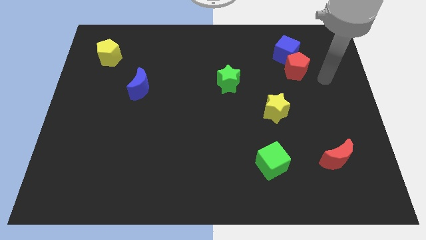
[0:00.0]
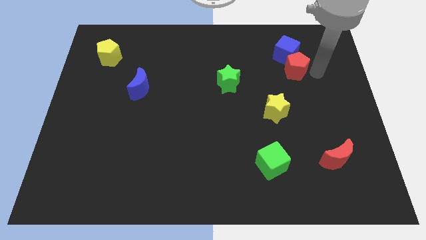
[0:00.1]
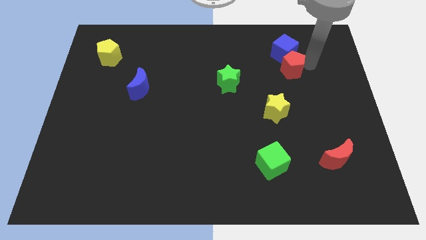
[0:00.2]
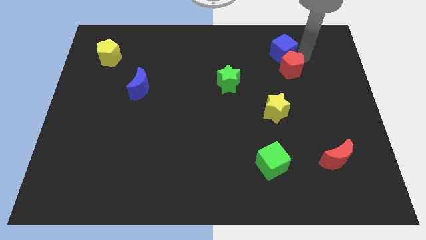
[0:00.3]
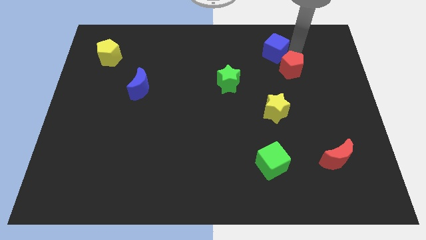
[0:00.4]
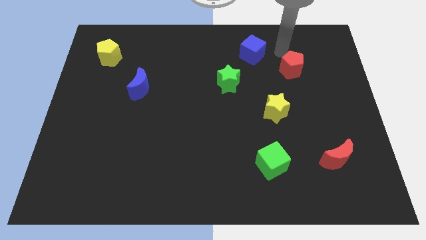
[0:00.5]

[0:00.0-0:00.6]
separate the red pentagon from the blue cube

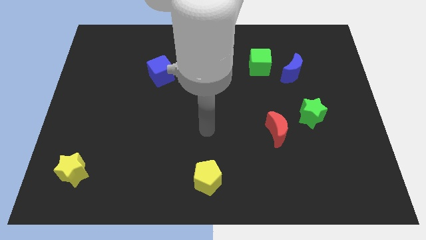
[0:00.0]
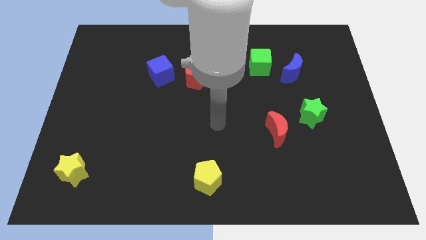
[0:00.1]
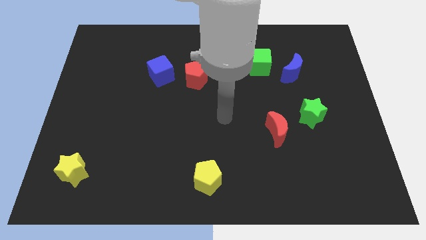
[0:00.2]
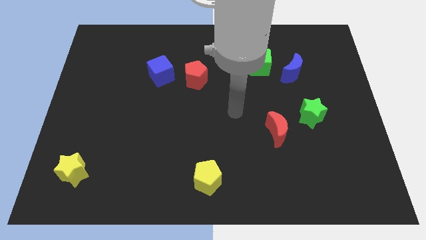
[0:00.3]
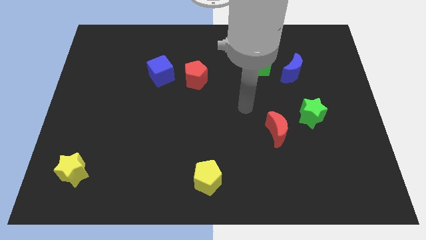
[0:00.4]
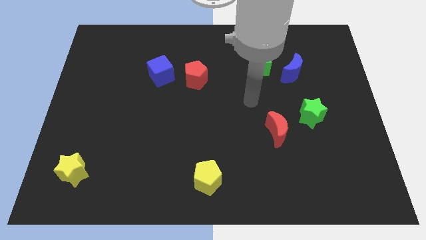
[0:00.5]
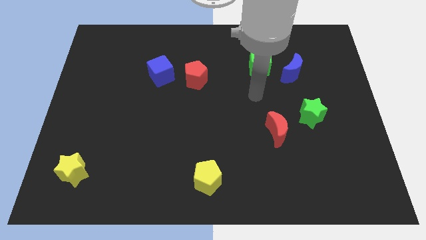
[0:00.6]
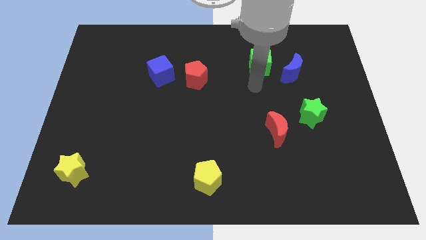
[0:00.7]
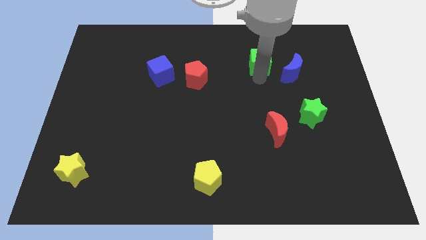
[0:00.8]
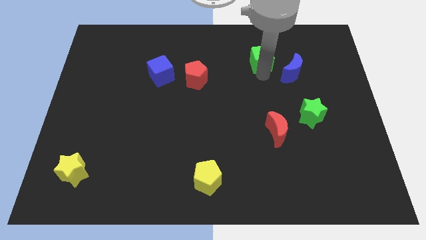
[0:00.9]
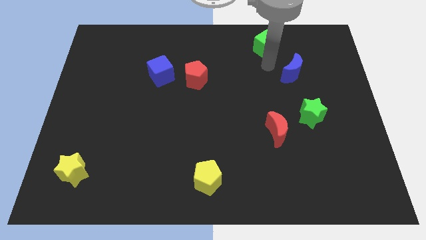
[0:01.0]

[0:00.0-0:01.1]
move the blue moon away from the green cube

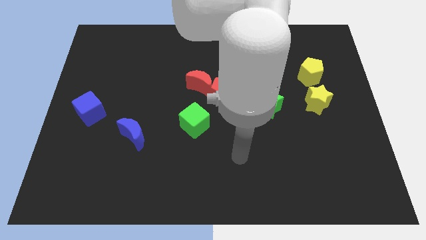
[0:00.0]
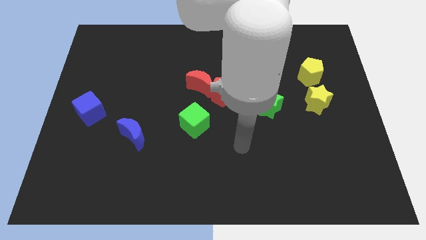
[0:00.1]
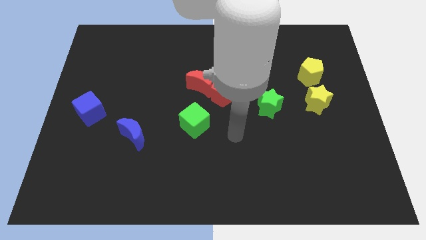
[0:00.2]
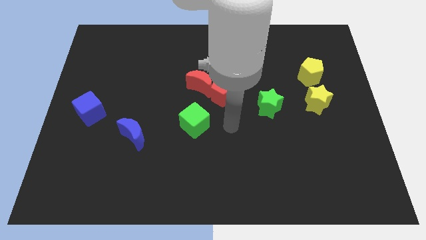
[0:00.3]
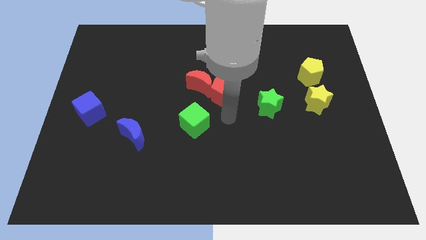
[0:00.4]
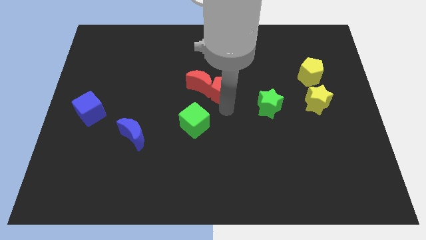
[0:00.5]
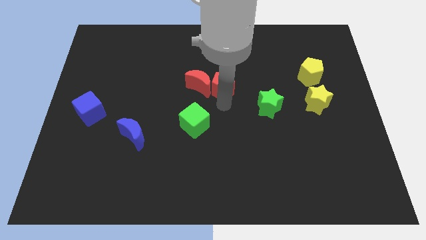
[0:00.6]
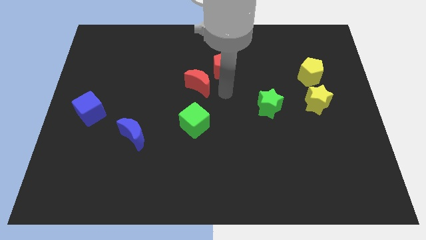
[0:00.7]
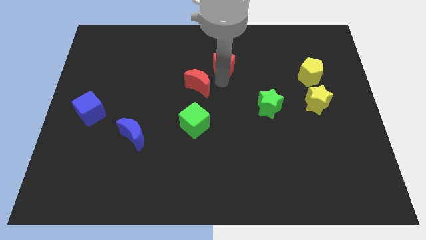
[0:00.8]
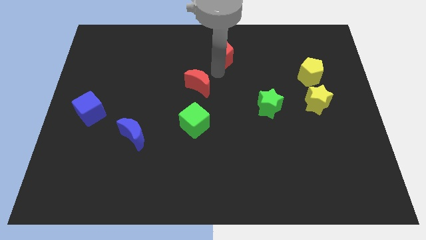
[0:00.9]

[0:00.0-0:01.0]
separate the red moon from the red pentagon

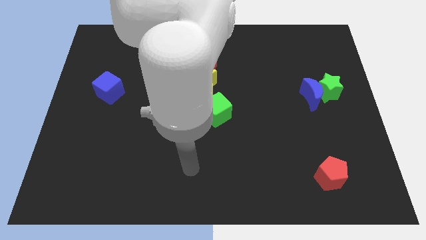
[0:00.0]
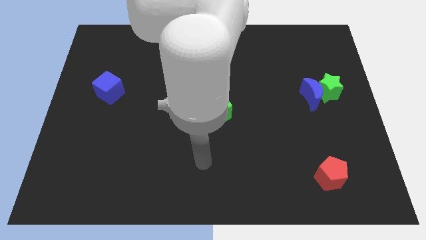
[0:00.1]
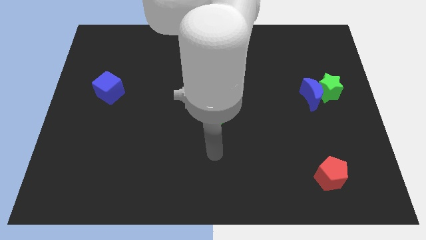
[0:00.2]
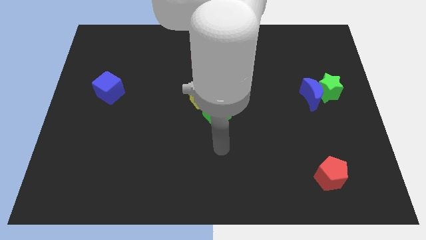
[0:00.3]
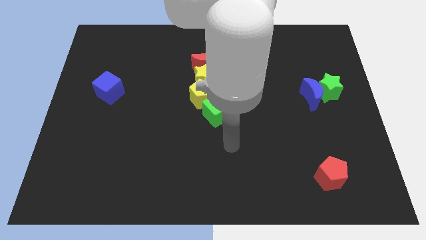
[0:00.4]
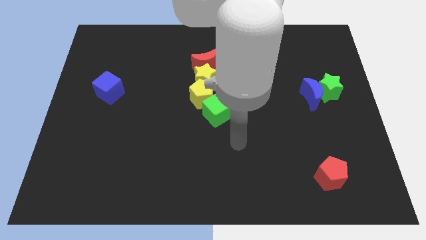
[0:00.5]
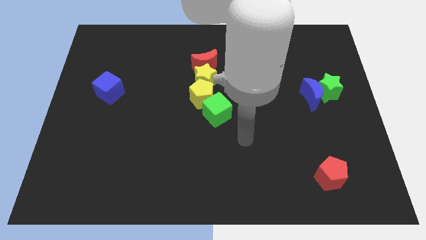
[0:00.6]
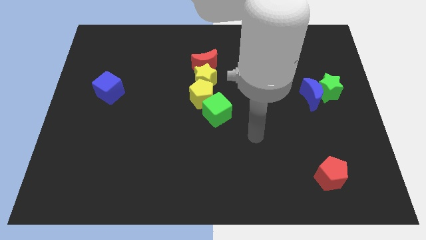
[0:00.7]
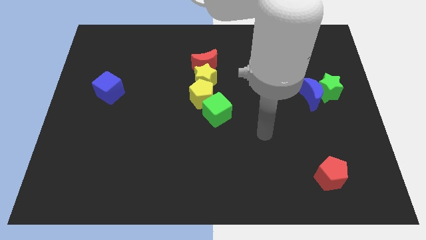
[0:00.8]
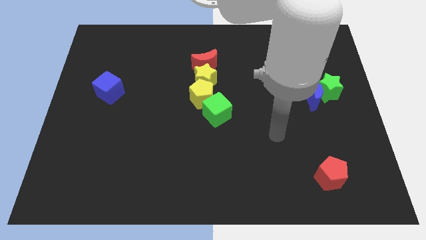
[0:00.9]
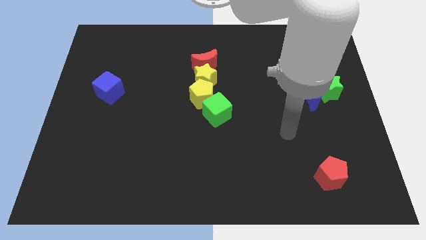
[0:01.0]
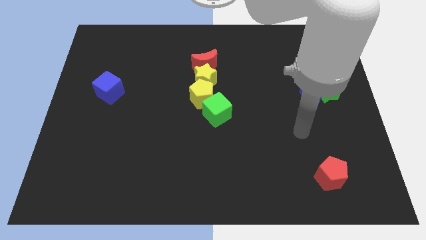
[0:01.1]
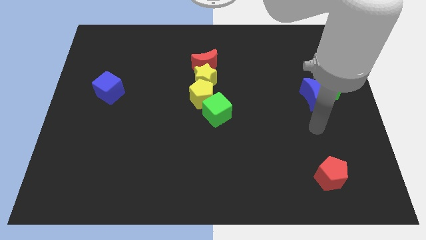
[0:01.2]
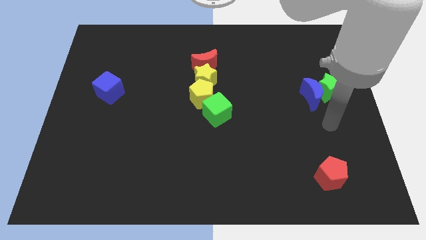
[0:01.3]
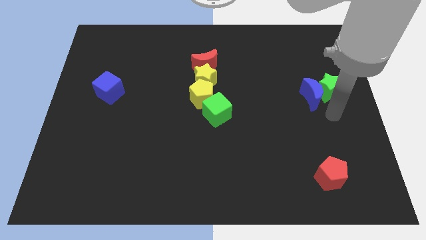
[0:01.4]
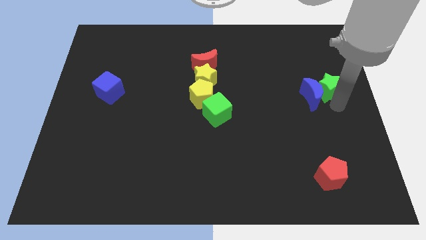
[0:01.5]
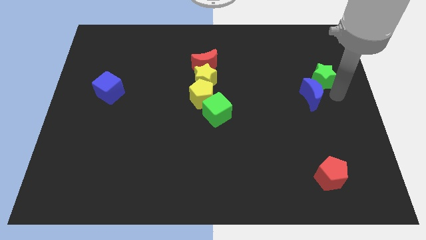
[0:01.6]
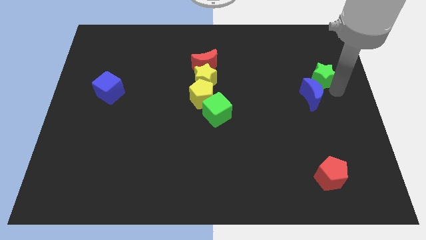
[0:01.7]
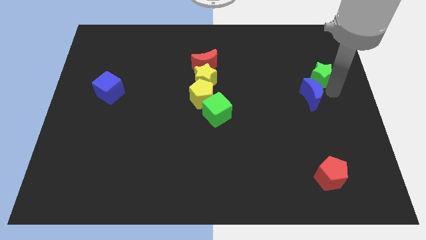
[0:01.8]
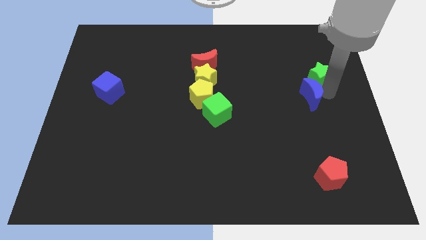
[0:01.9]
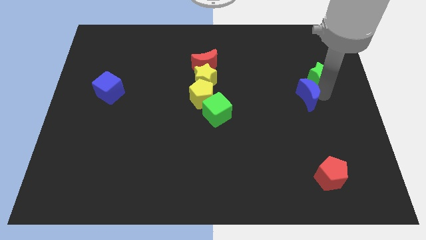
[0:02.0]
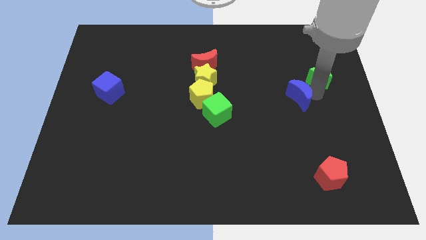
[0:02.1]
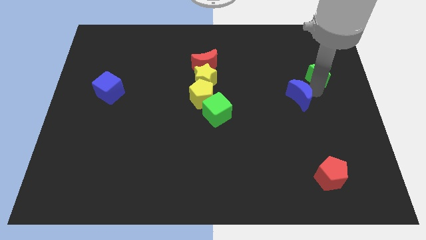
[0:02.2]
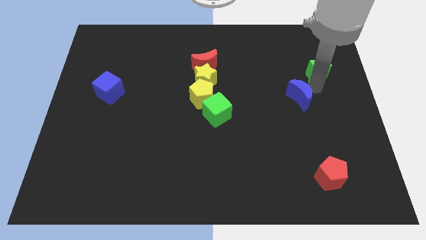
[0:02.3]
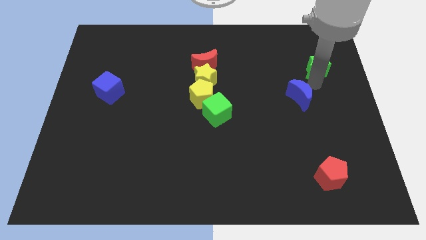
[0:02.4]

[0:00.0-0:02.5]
separate the blue moon from the green star

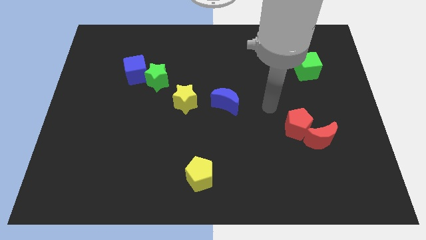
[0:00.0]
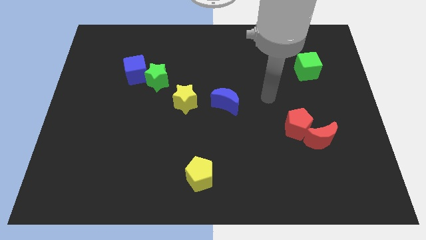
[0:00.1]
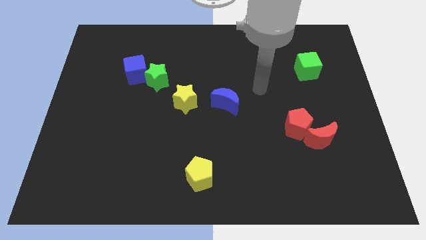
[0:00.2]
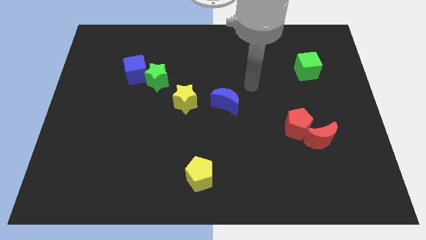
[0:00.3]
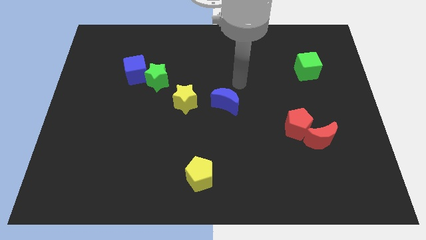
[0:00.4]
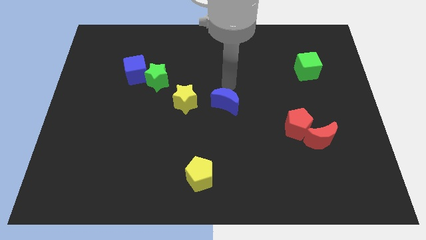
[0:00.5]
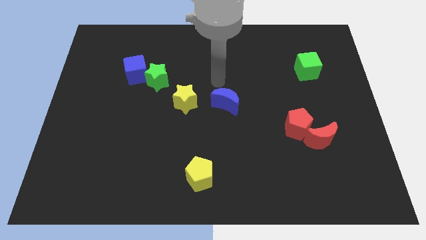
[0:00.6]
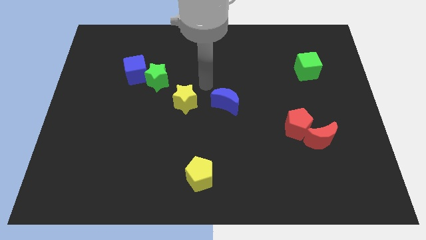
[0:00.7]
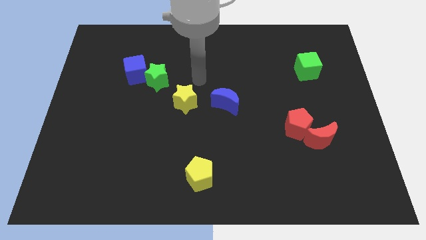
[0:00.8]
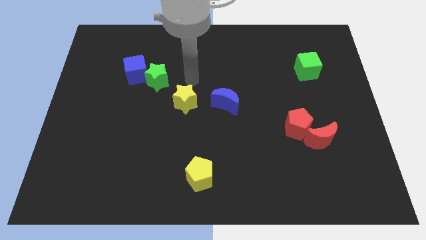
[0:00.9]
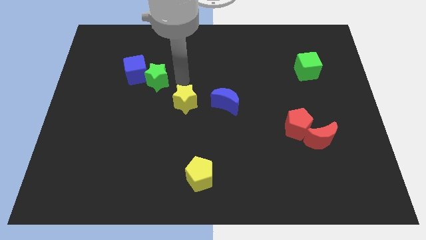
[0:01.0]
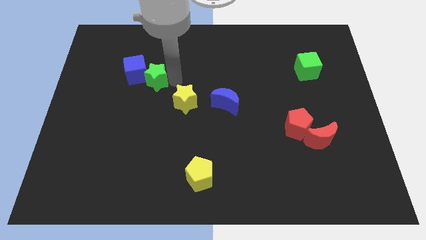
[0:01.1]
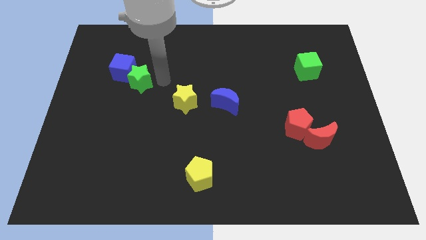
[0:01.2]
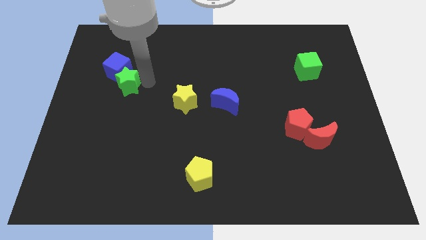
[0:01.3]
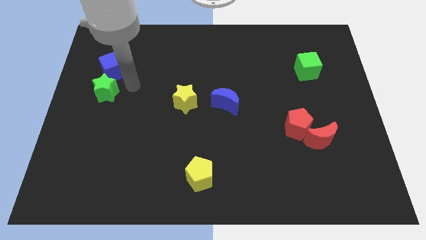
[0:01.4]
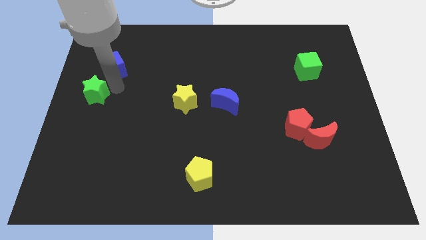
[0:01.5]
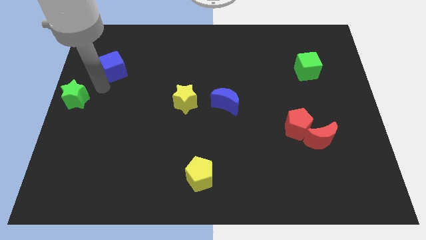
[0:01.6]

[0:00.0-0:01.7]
pull the blue cube apart from the green star

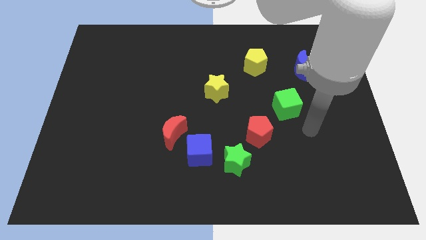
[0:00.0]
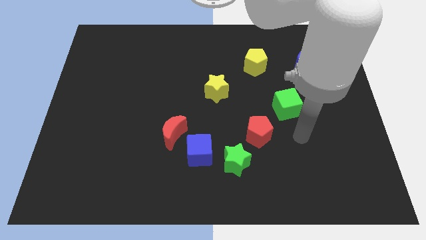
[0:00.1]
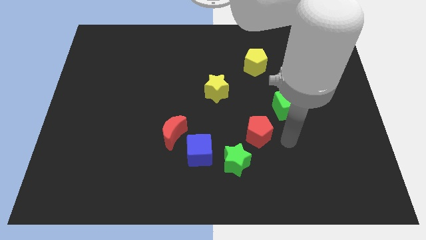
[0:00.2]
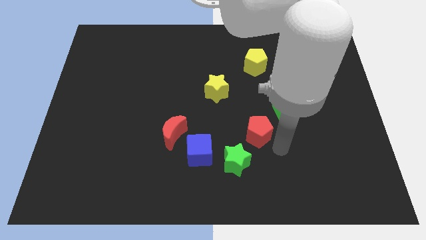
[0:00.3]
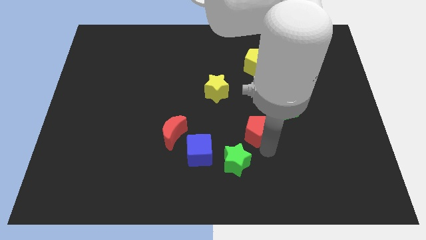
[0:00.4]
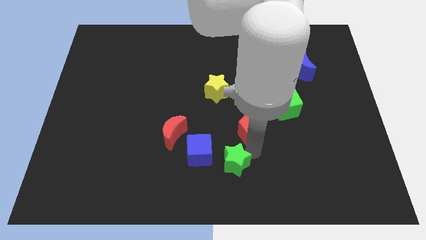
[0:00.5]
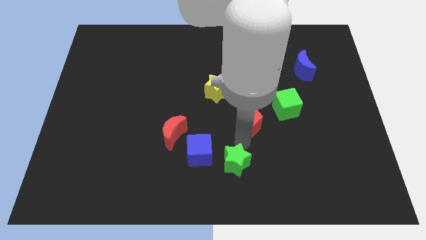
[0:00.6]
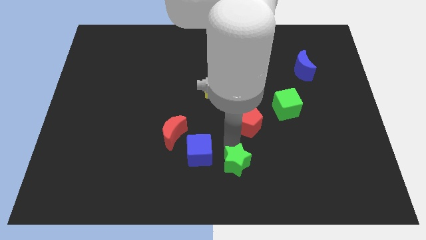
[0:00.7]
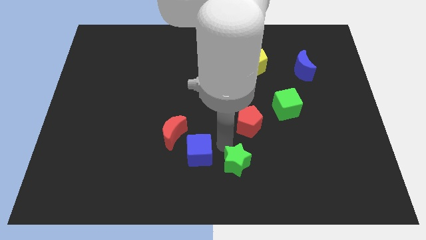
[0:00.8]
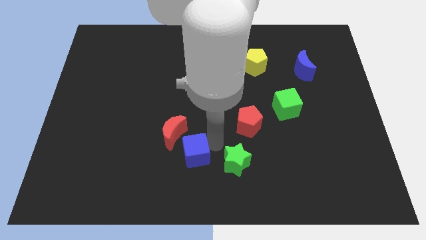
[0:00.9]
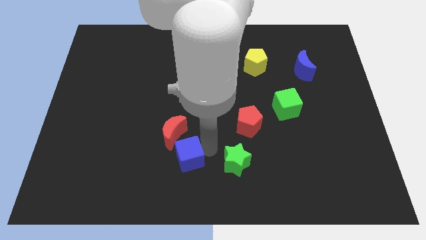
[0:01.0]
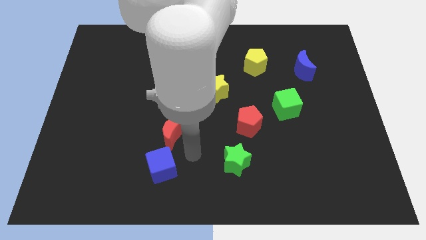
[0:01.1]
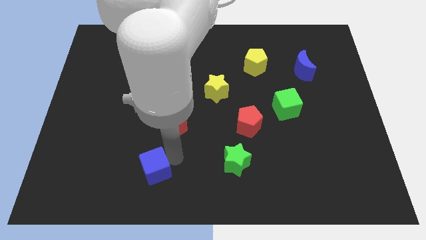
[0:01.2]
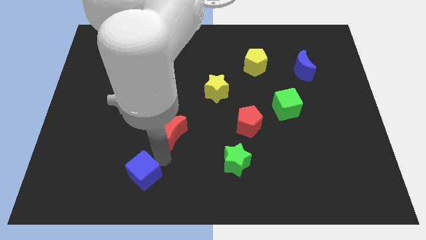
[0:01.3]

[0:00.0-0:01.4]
pull the red moon apart from the blue cube

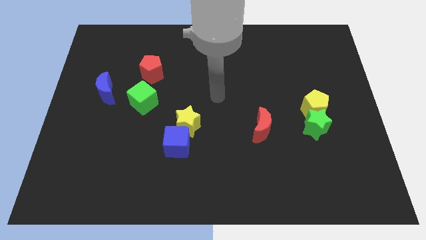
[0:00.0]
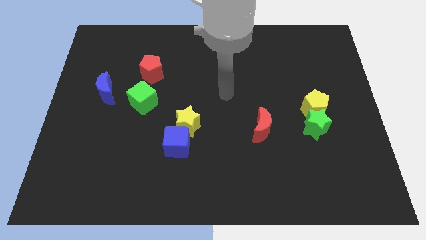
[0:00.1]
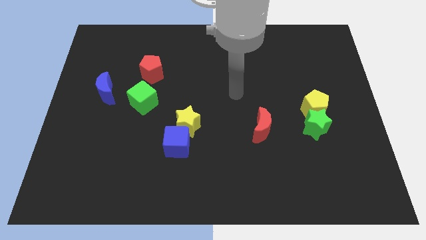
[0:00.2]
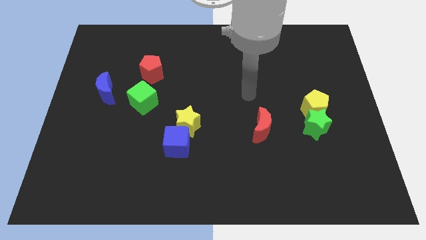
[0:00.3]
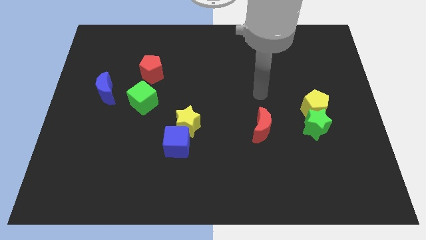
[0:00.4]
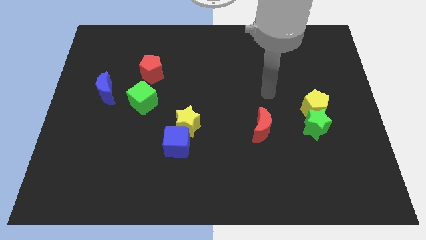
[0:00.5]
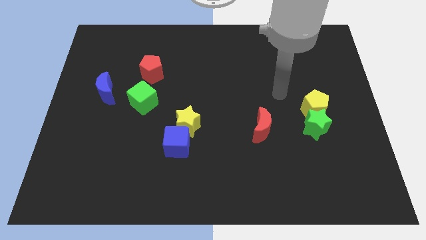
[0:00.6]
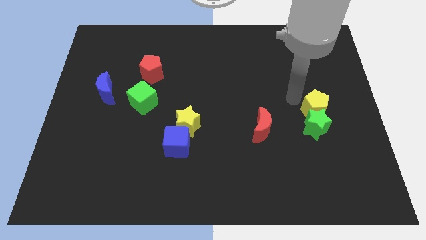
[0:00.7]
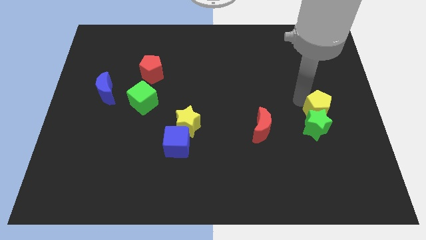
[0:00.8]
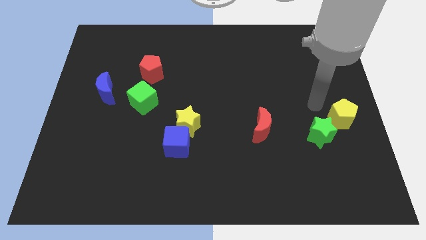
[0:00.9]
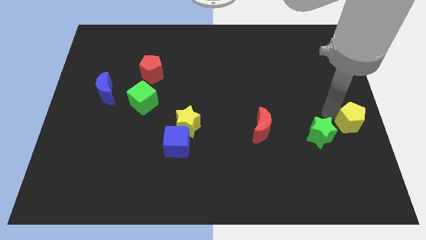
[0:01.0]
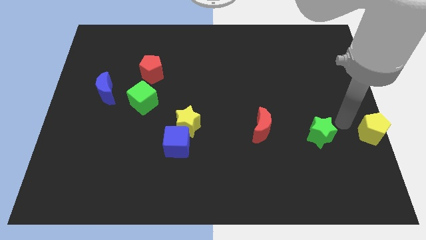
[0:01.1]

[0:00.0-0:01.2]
pull the green star apart from the yellow pentagon
